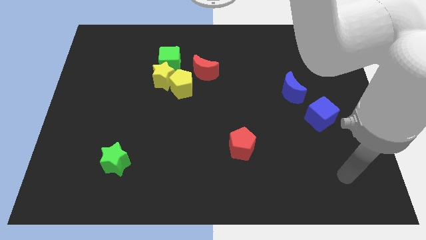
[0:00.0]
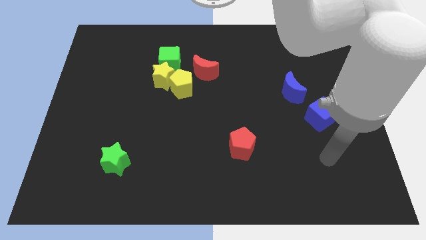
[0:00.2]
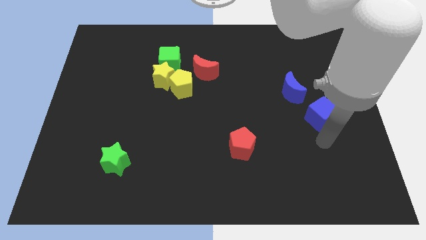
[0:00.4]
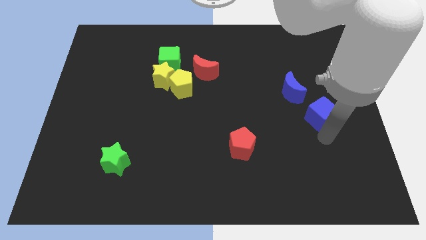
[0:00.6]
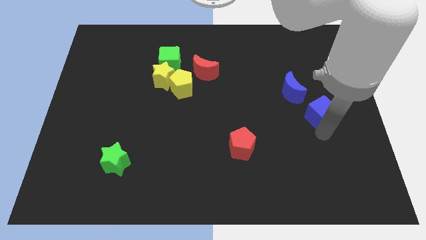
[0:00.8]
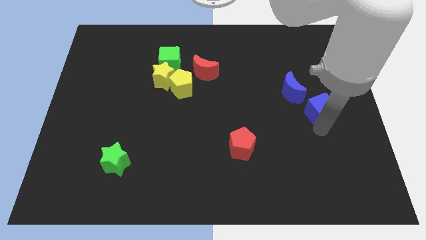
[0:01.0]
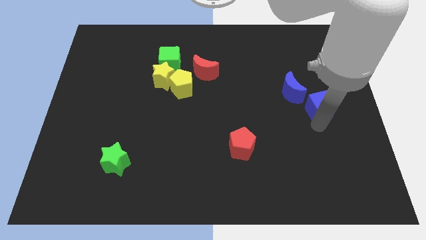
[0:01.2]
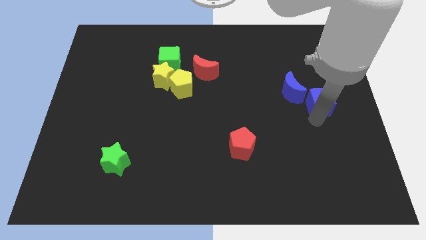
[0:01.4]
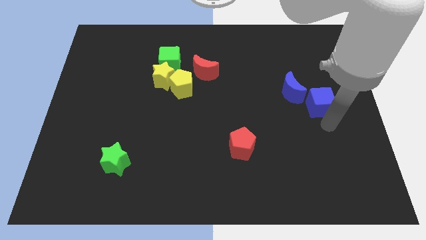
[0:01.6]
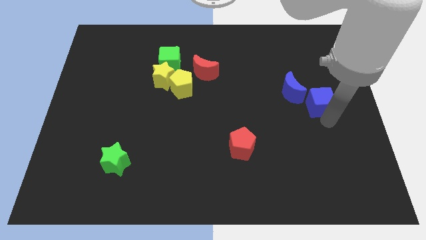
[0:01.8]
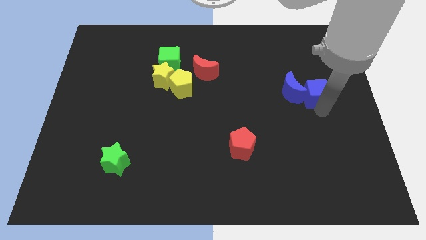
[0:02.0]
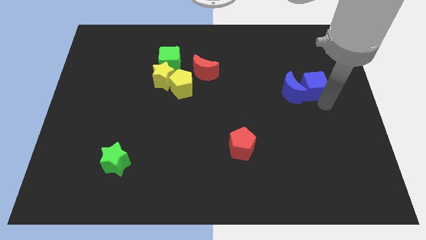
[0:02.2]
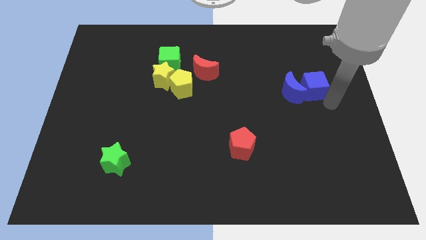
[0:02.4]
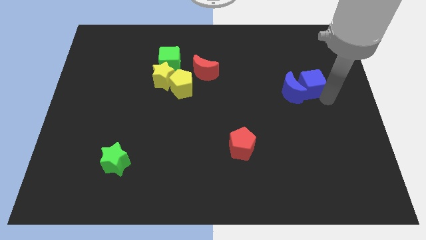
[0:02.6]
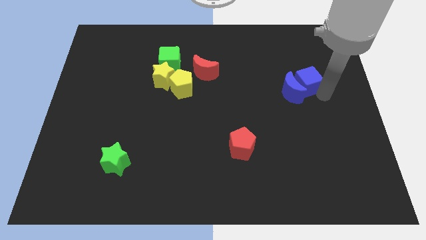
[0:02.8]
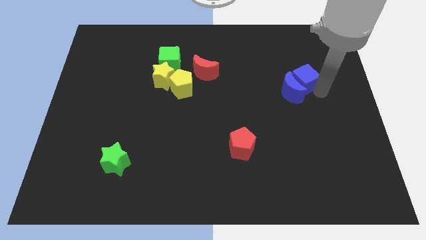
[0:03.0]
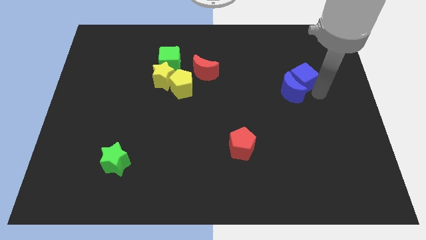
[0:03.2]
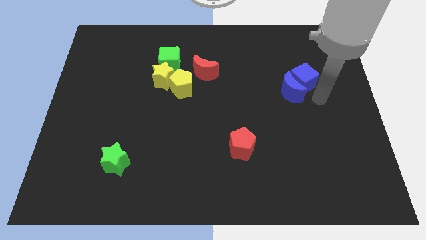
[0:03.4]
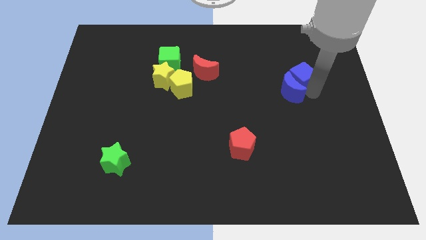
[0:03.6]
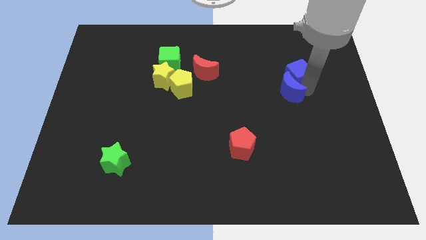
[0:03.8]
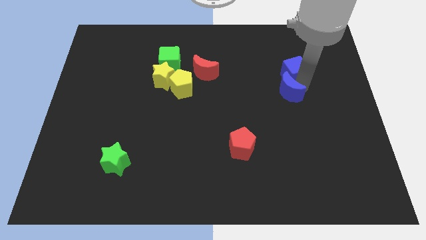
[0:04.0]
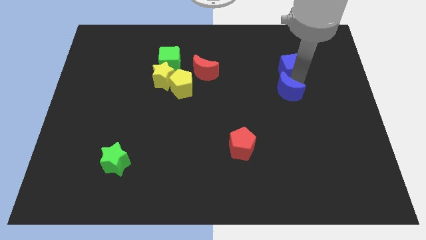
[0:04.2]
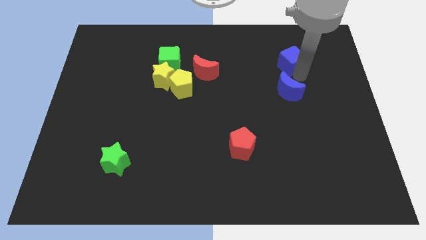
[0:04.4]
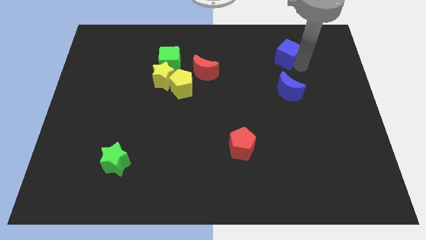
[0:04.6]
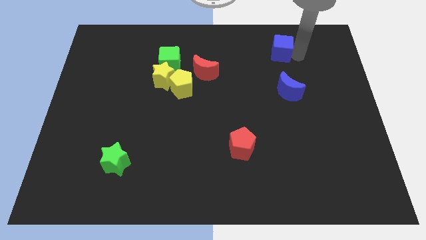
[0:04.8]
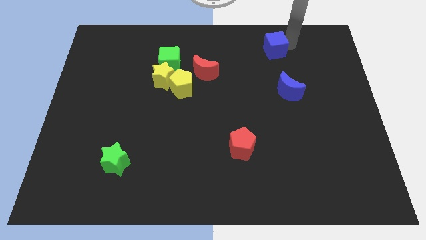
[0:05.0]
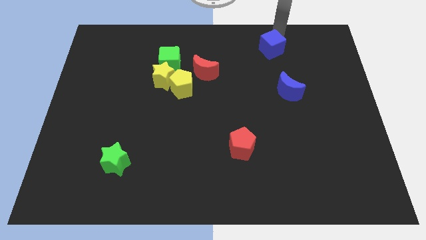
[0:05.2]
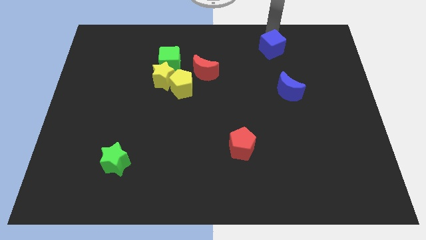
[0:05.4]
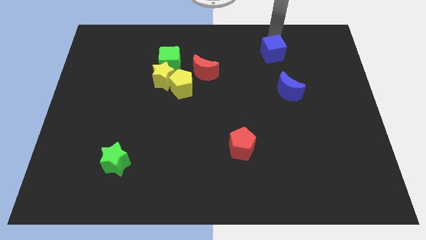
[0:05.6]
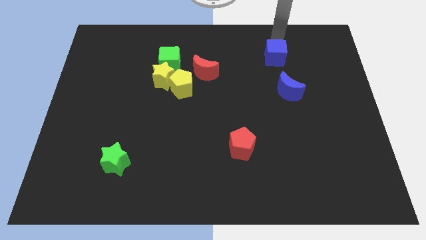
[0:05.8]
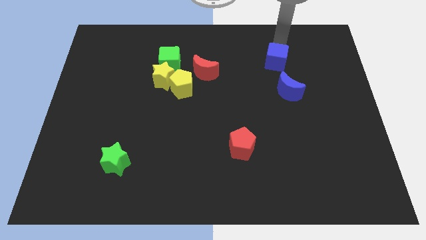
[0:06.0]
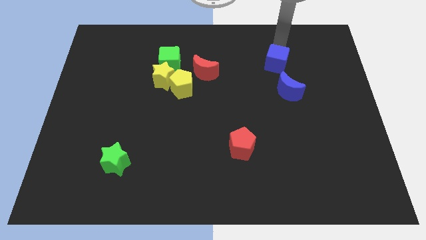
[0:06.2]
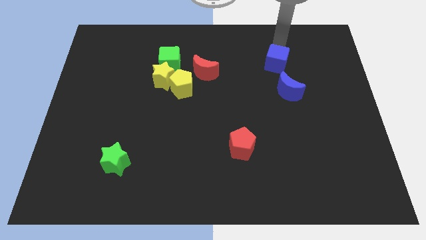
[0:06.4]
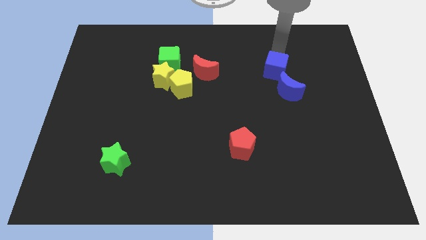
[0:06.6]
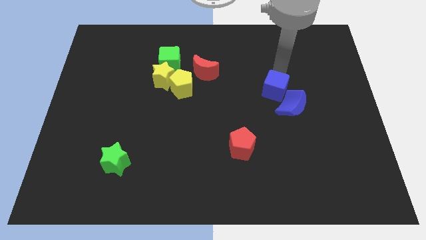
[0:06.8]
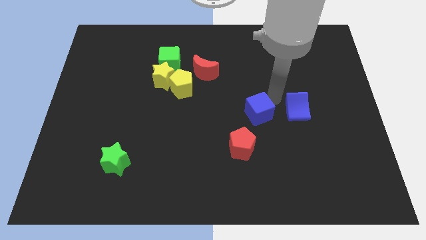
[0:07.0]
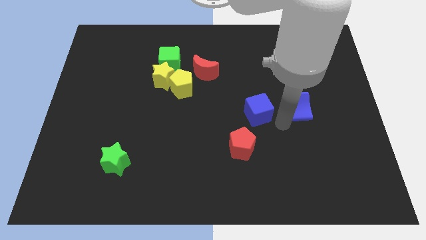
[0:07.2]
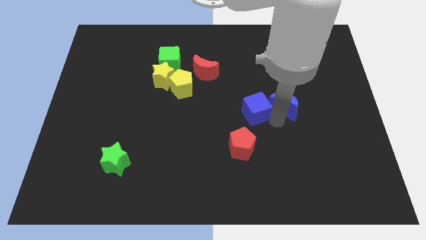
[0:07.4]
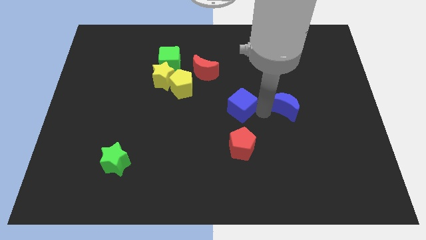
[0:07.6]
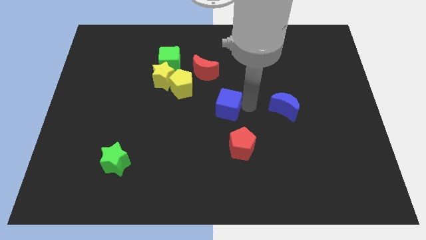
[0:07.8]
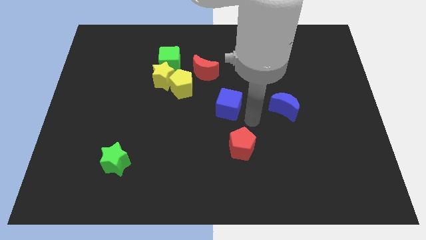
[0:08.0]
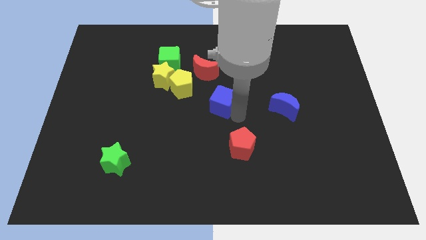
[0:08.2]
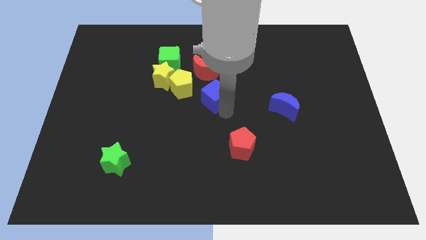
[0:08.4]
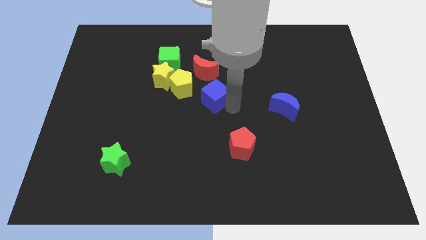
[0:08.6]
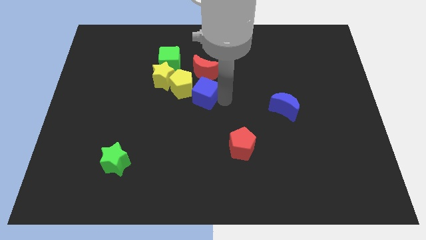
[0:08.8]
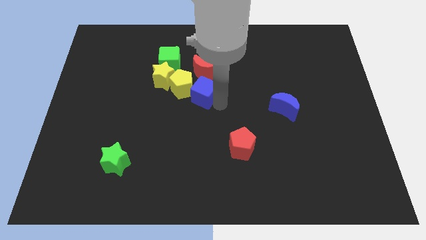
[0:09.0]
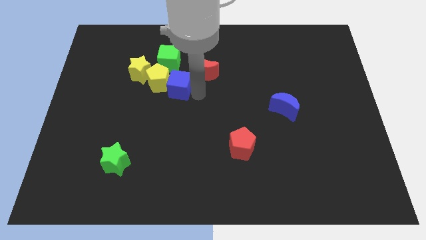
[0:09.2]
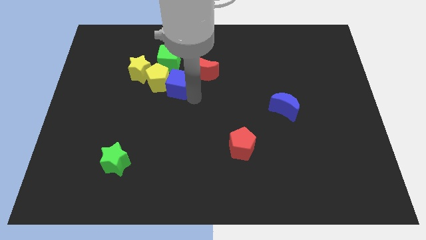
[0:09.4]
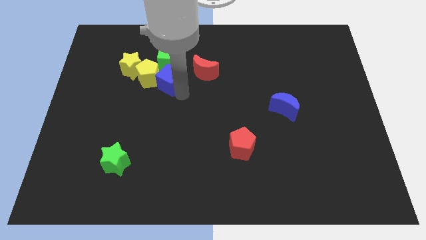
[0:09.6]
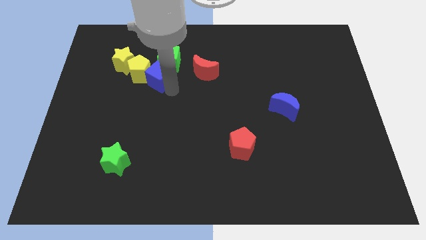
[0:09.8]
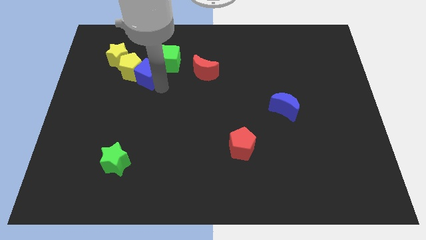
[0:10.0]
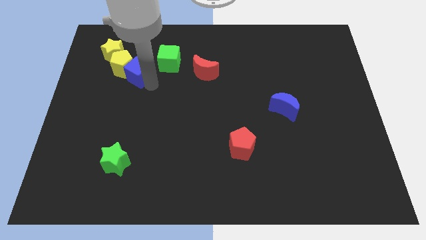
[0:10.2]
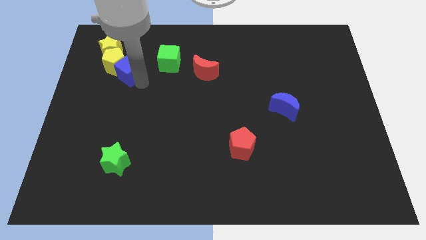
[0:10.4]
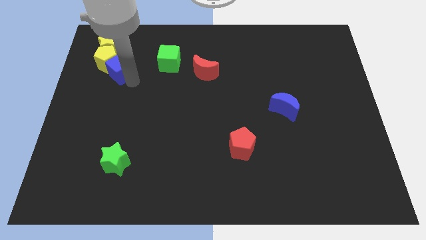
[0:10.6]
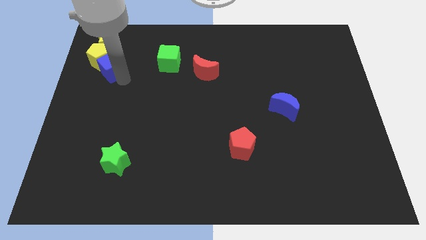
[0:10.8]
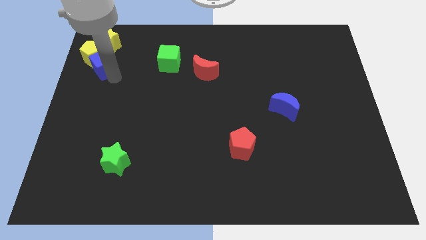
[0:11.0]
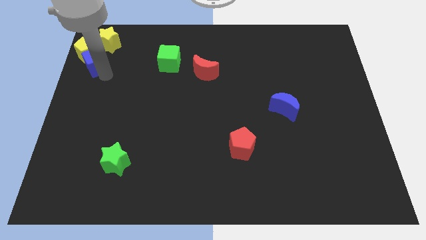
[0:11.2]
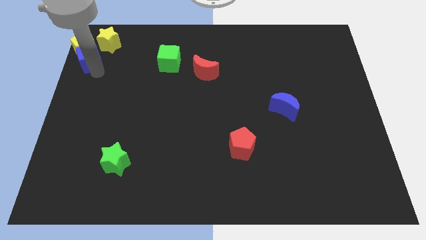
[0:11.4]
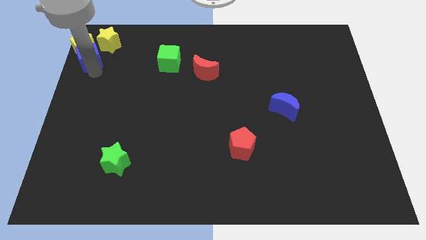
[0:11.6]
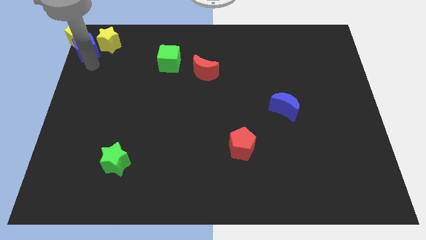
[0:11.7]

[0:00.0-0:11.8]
push the blue cube to the upper left corner
